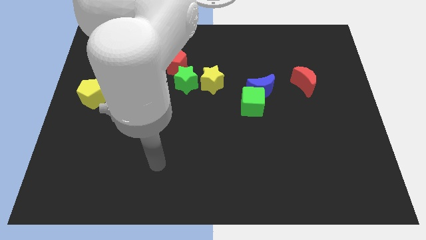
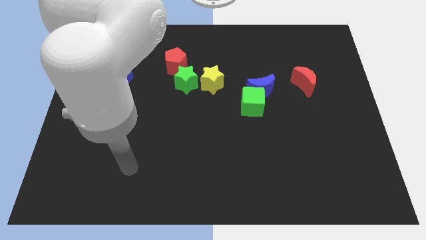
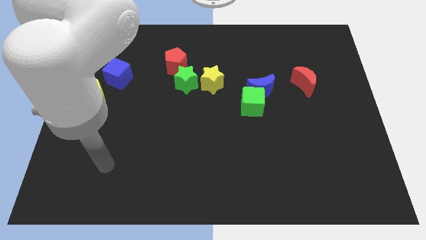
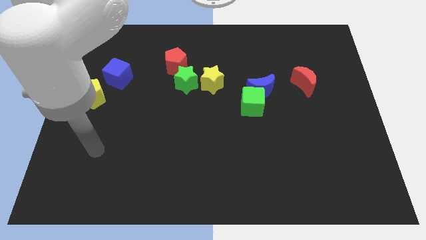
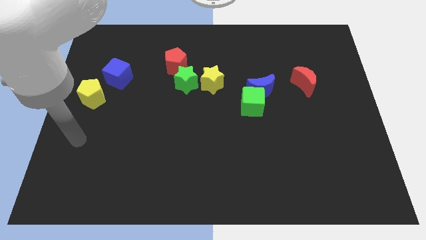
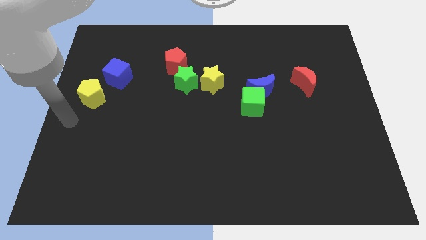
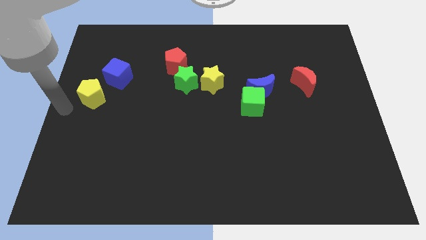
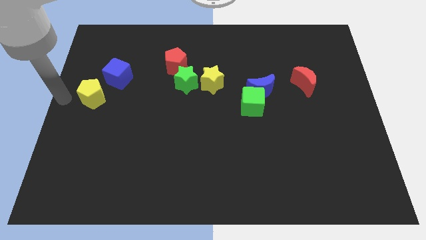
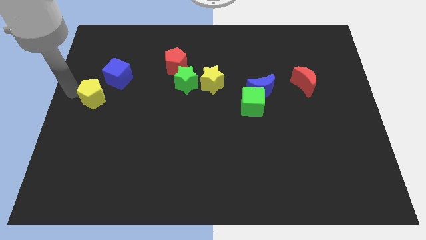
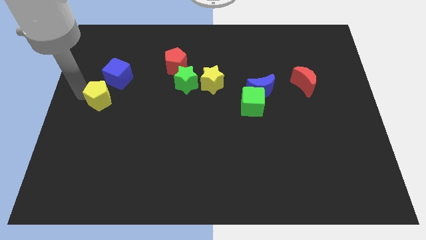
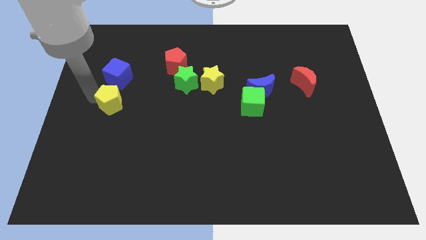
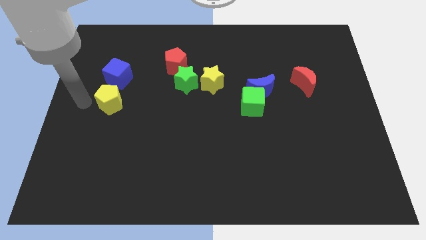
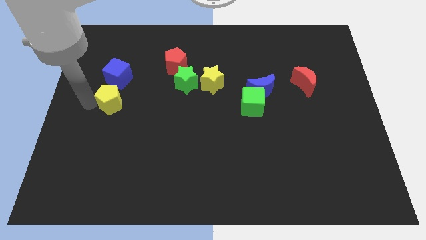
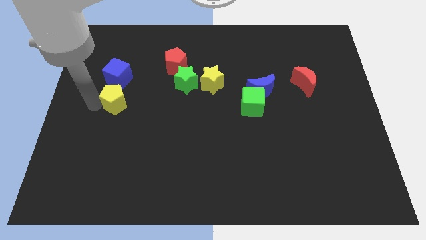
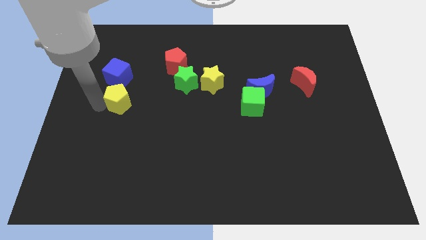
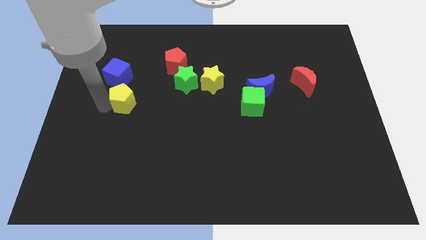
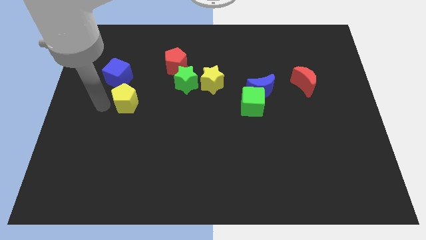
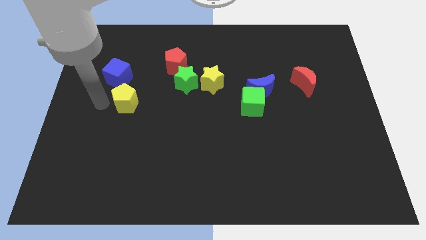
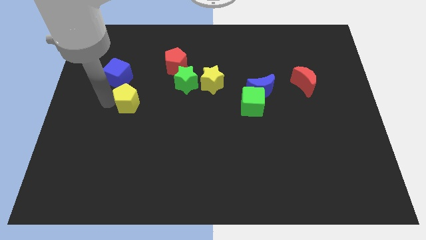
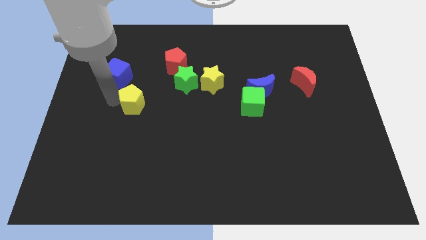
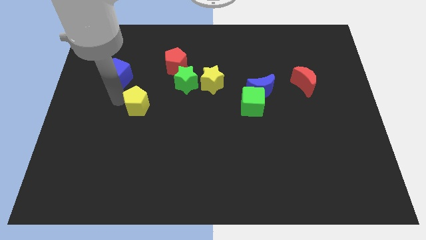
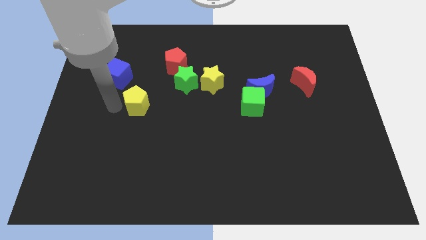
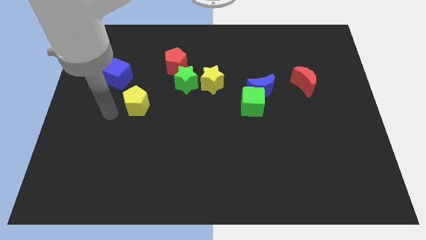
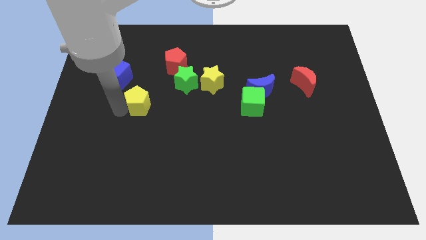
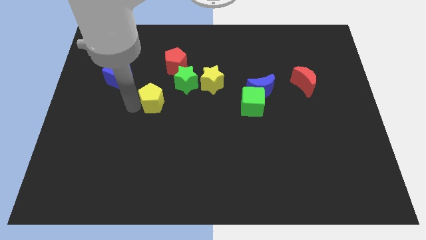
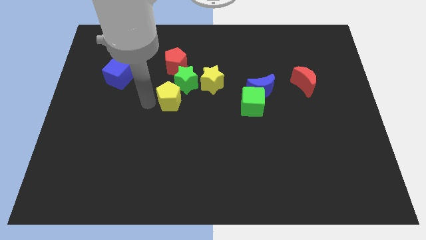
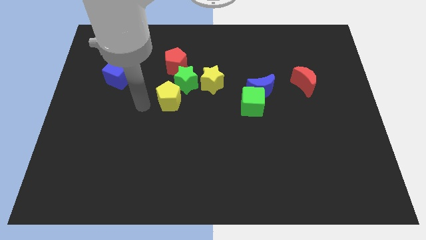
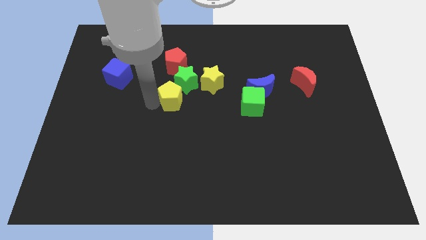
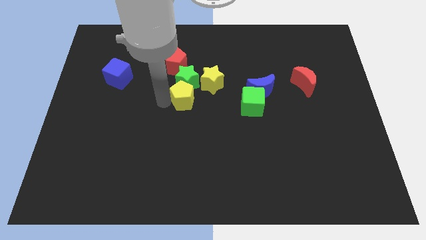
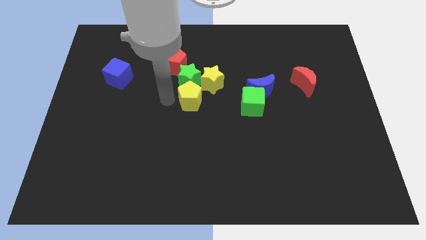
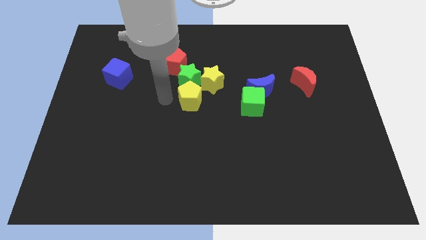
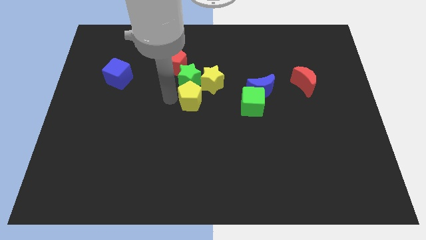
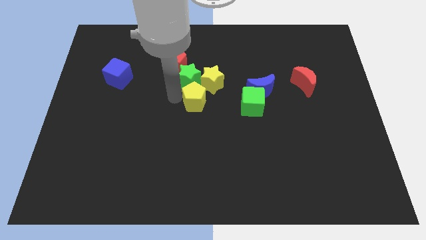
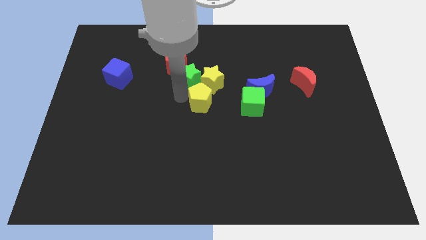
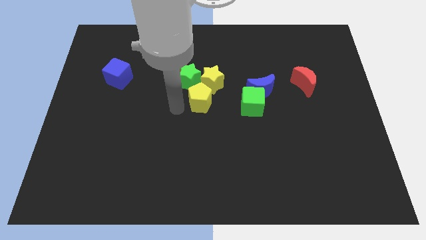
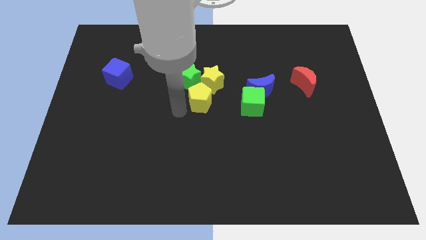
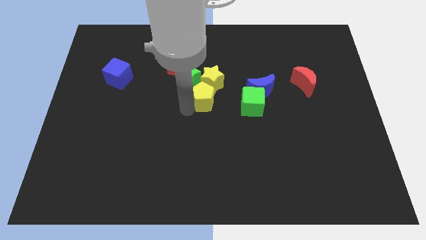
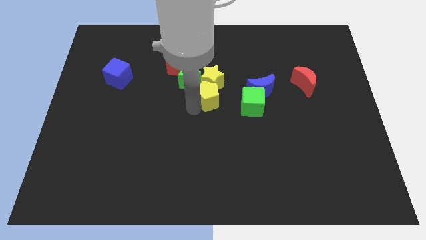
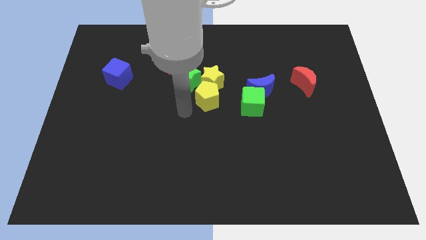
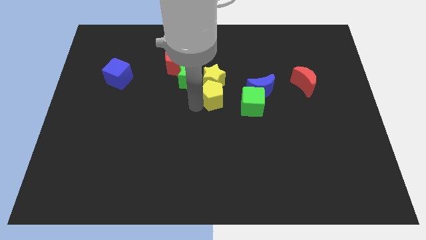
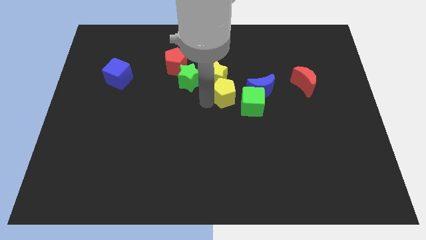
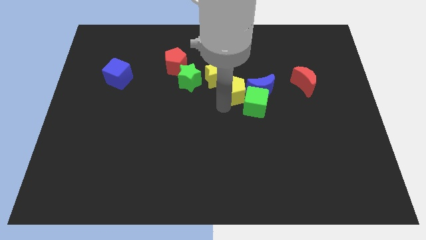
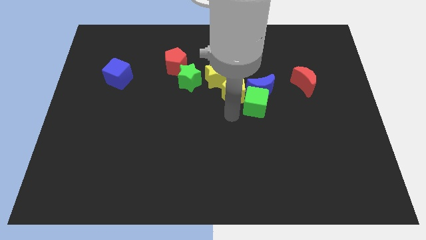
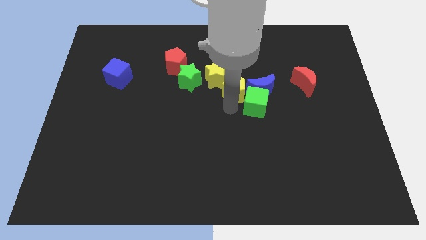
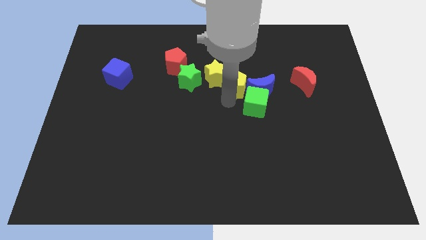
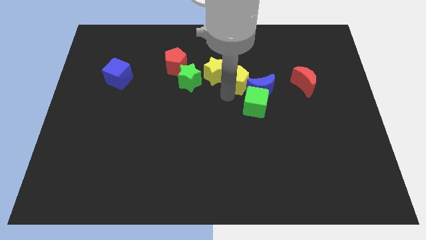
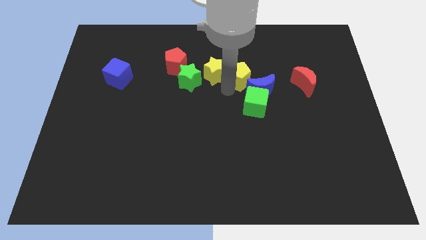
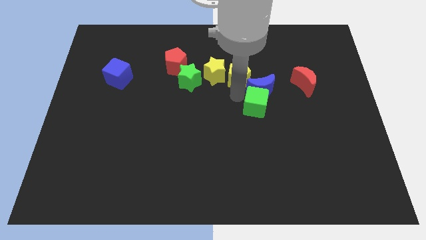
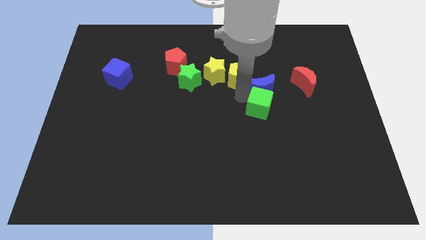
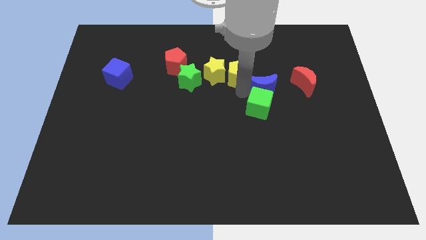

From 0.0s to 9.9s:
slide the yellow pentagon to the top right side of the yellow star

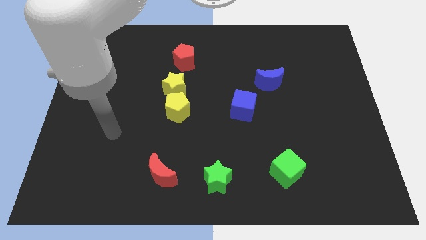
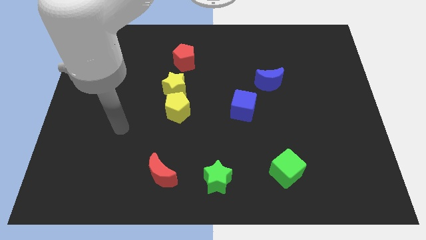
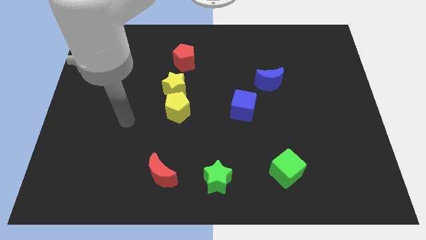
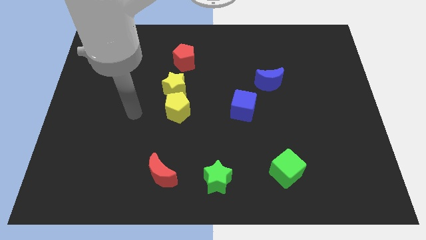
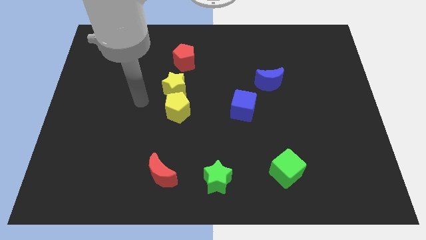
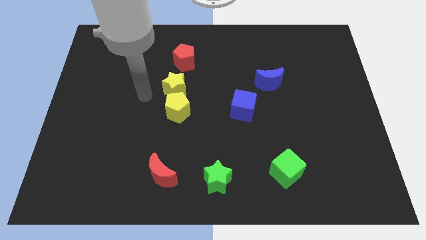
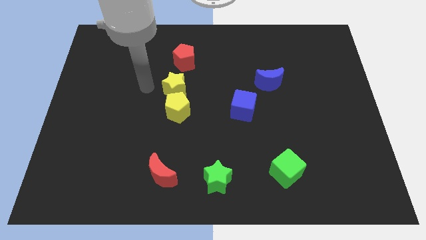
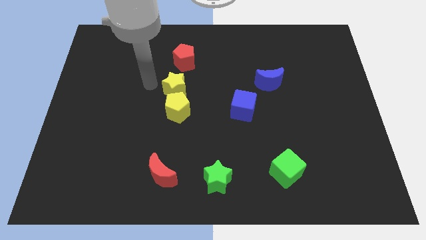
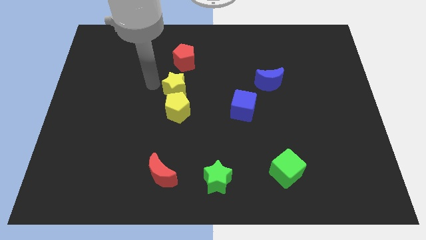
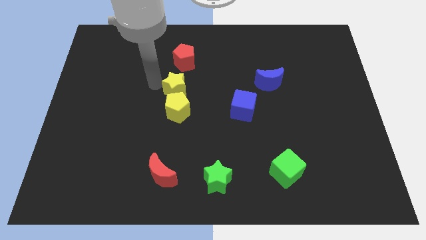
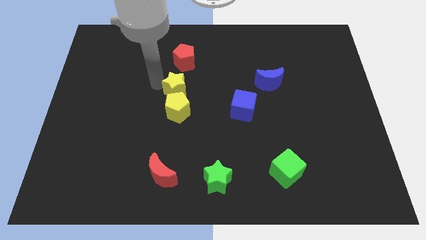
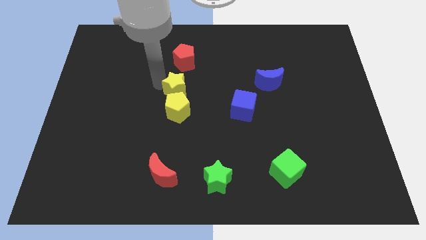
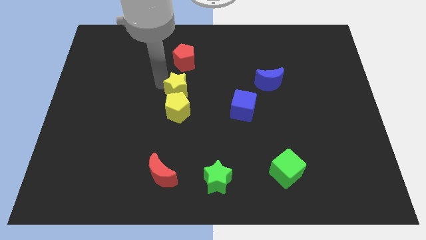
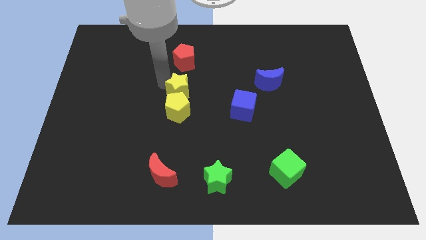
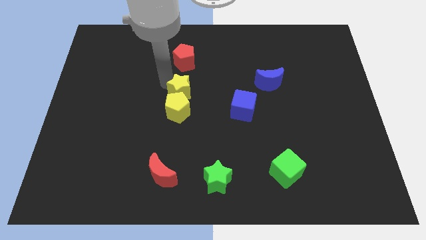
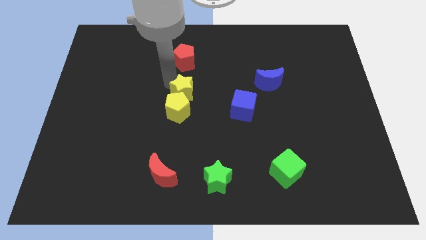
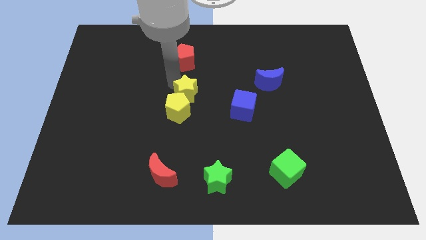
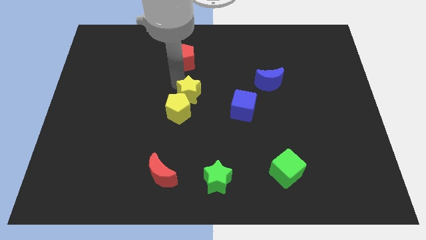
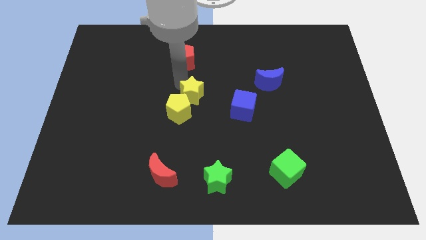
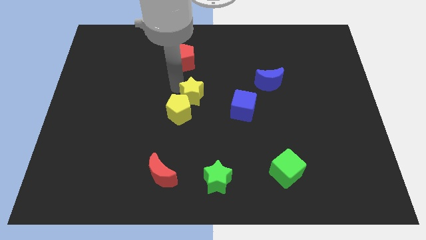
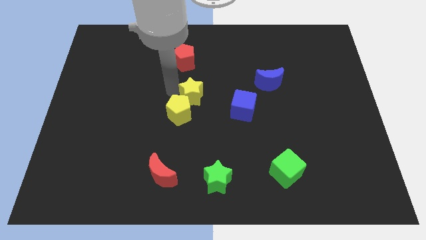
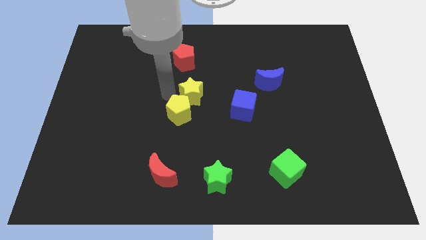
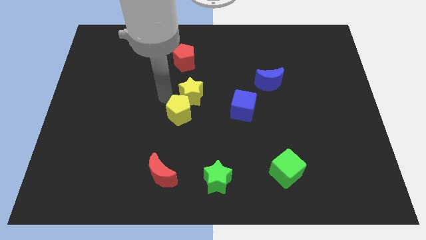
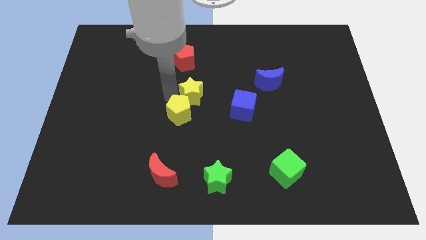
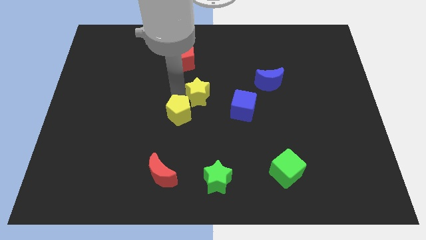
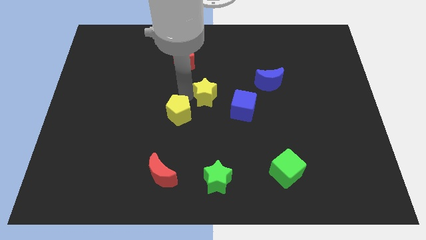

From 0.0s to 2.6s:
push the yellow star to the top left of the blue cube
